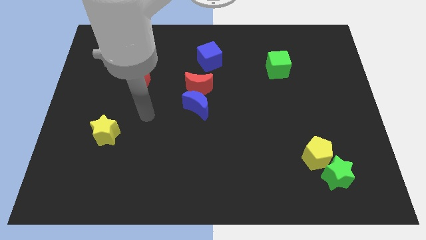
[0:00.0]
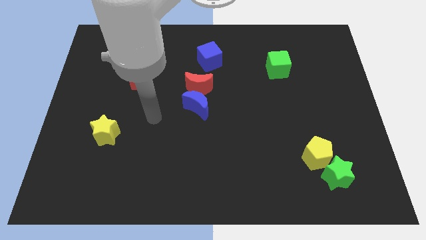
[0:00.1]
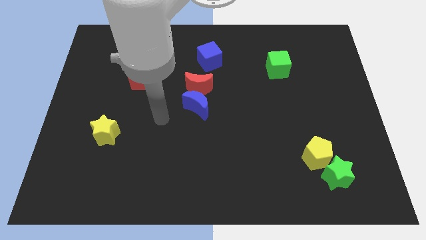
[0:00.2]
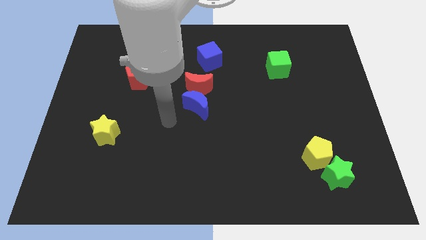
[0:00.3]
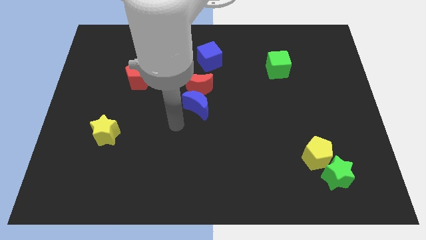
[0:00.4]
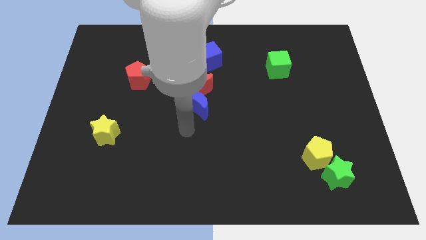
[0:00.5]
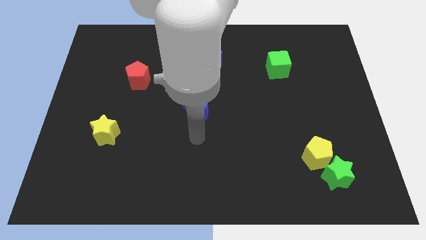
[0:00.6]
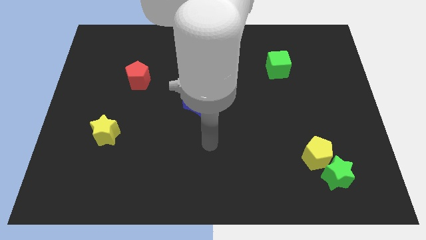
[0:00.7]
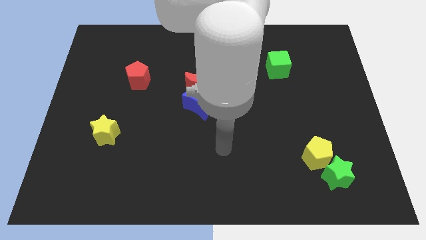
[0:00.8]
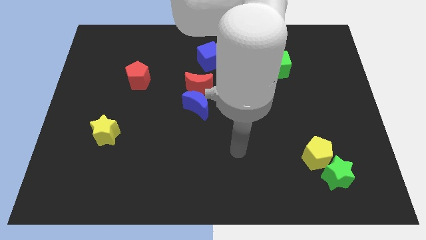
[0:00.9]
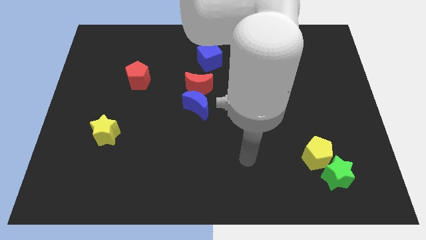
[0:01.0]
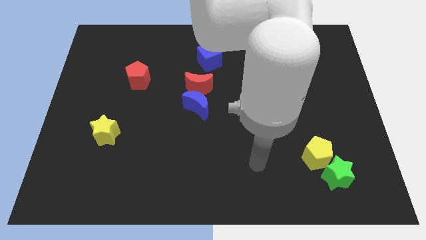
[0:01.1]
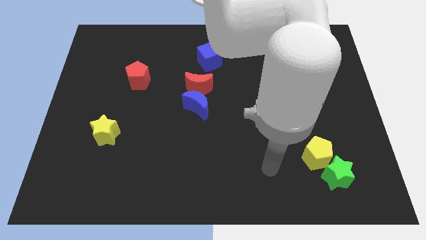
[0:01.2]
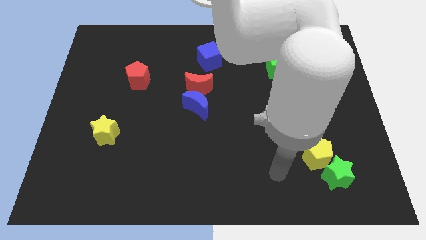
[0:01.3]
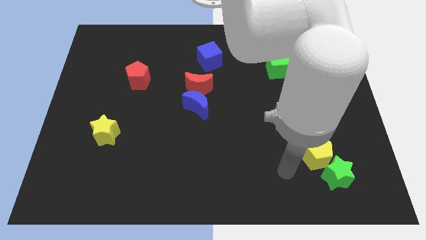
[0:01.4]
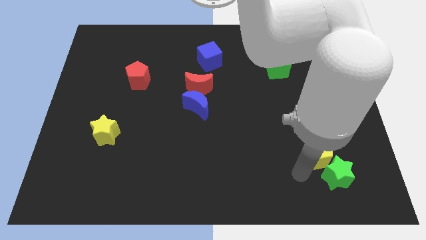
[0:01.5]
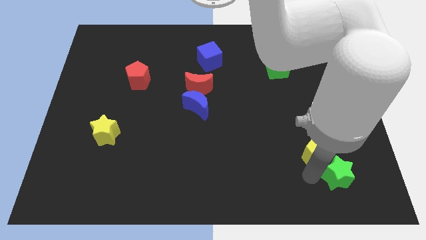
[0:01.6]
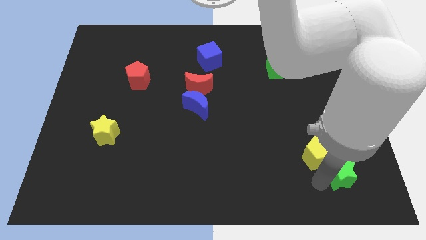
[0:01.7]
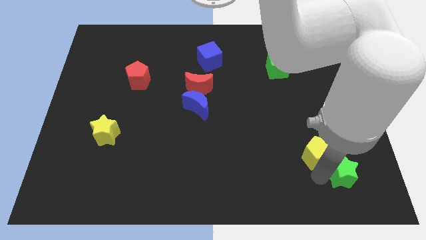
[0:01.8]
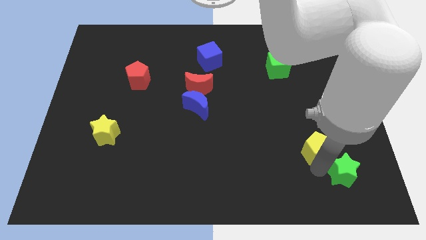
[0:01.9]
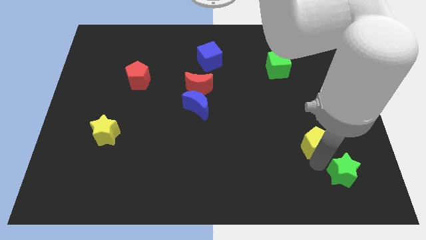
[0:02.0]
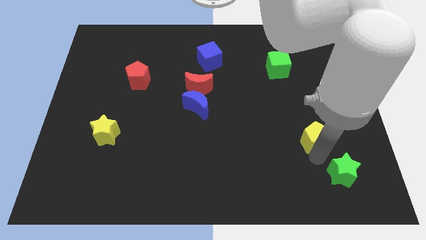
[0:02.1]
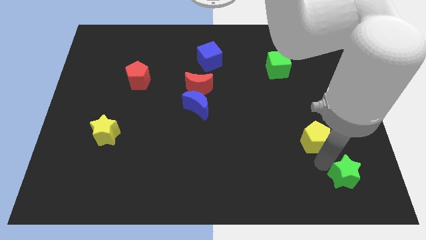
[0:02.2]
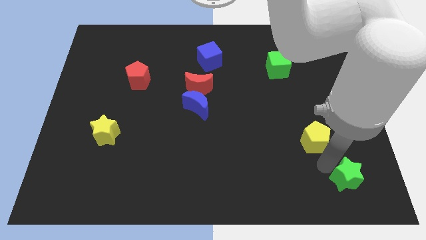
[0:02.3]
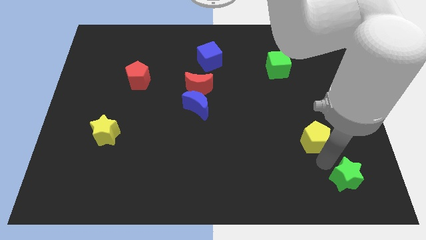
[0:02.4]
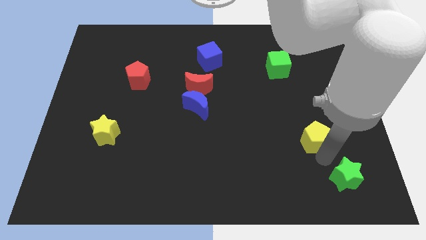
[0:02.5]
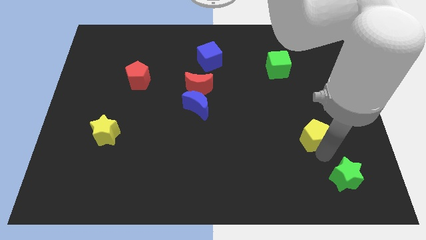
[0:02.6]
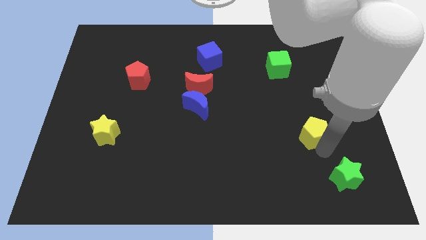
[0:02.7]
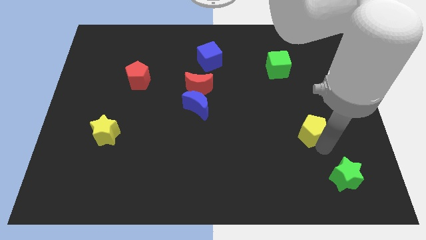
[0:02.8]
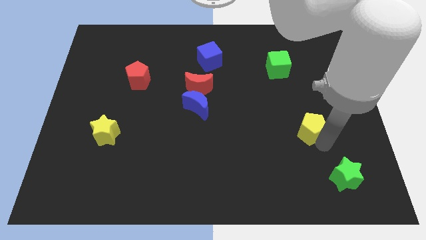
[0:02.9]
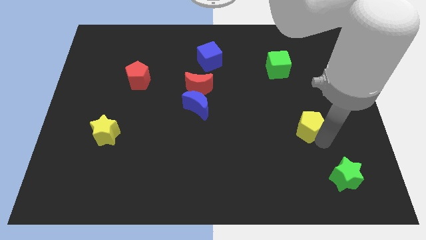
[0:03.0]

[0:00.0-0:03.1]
push the yellow pentagon upwards a little

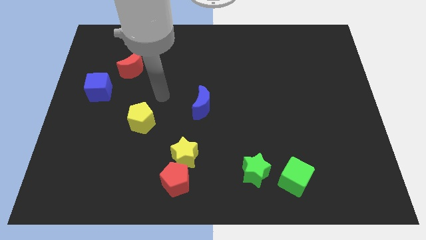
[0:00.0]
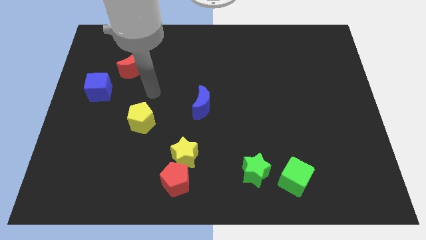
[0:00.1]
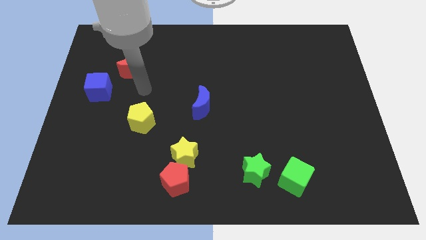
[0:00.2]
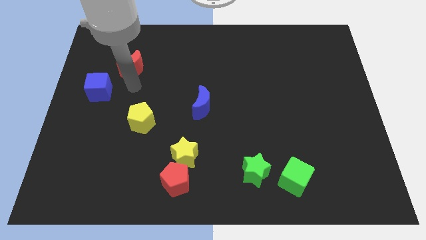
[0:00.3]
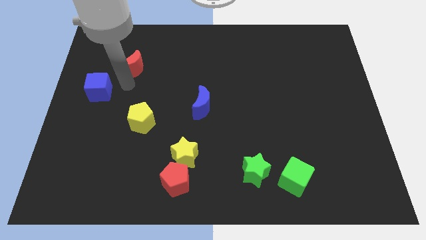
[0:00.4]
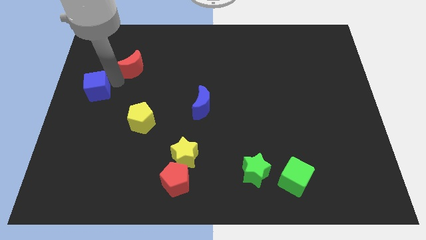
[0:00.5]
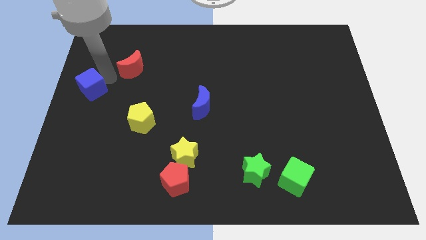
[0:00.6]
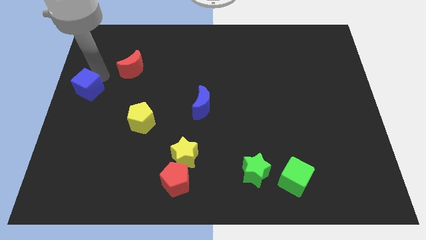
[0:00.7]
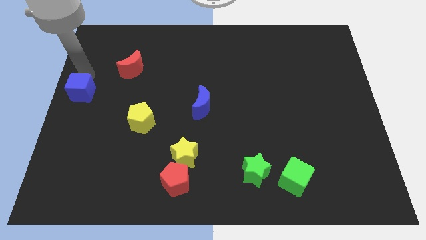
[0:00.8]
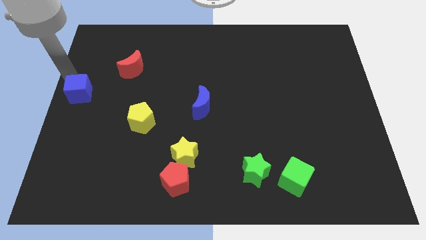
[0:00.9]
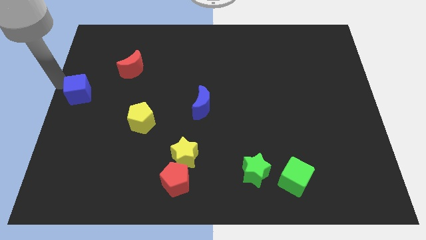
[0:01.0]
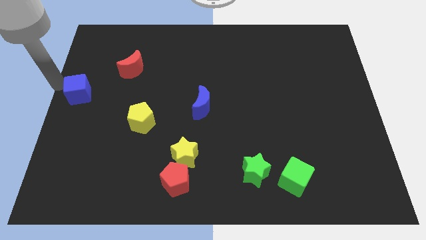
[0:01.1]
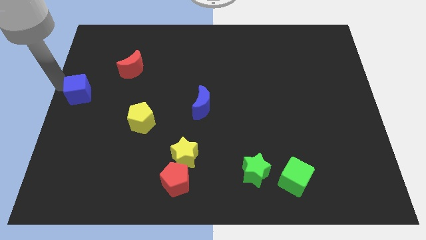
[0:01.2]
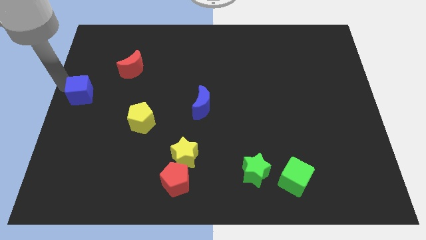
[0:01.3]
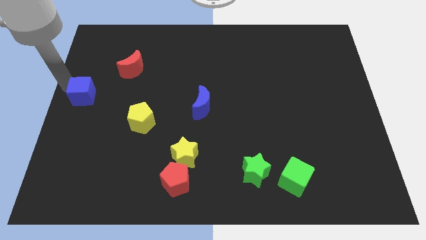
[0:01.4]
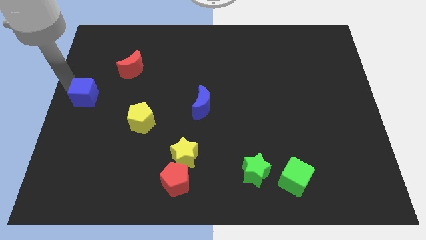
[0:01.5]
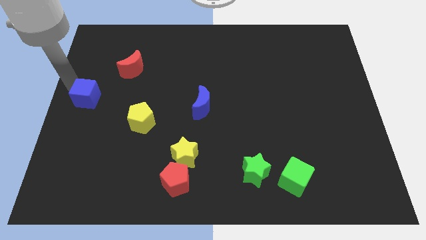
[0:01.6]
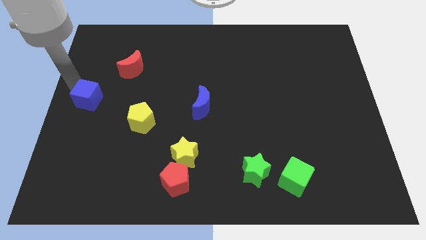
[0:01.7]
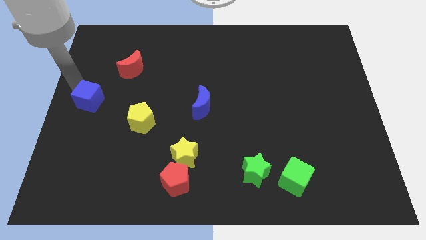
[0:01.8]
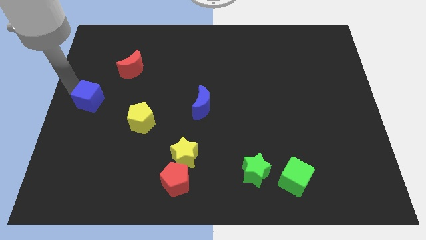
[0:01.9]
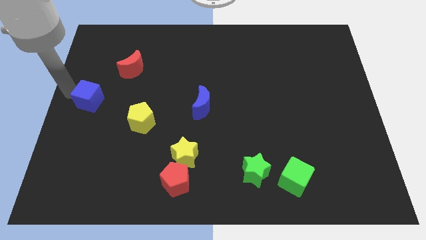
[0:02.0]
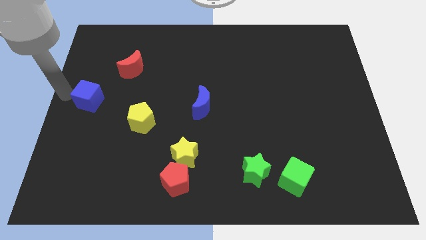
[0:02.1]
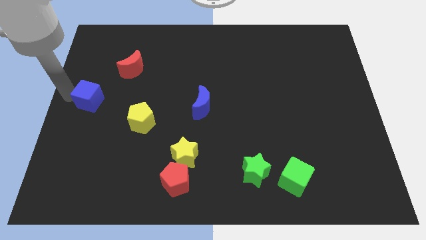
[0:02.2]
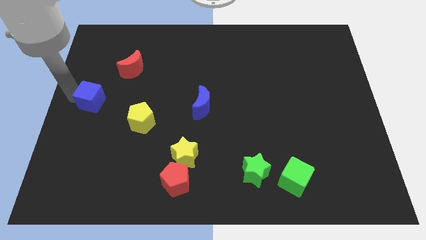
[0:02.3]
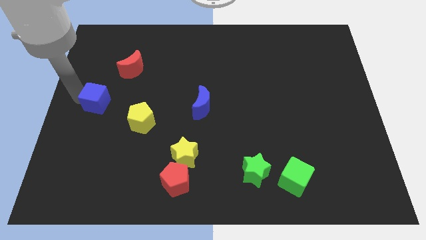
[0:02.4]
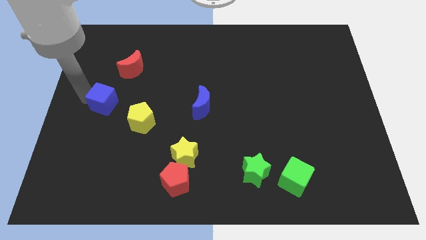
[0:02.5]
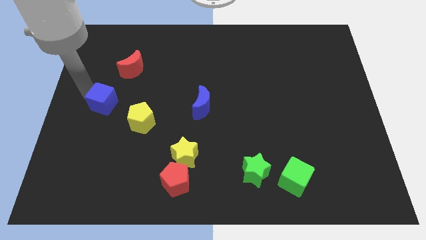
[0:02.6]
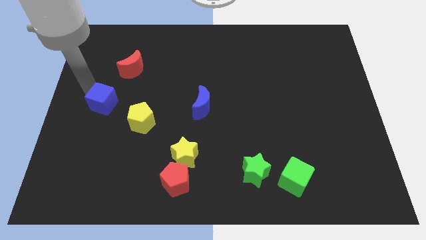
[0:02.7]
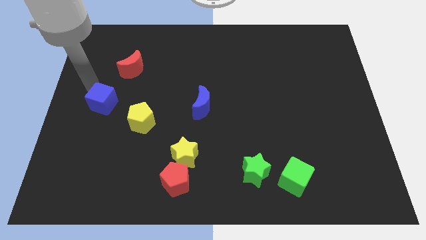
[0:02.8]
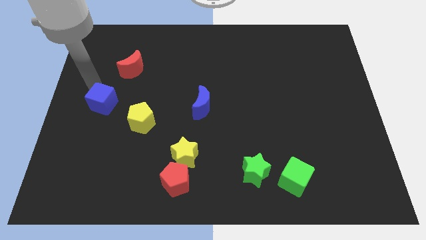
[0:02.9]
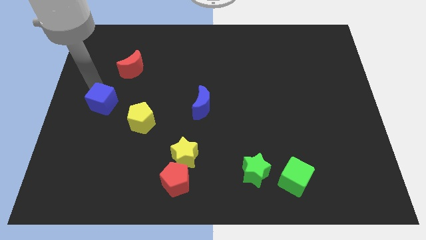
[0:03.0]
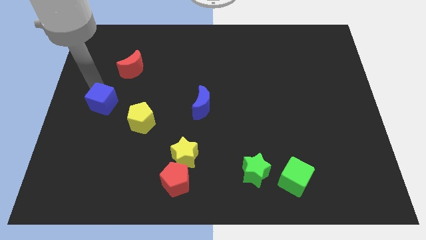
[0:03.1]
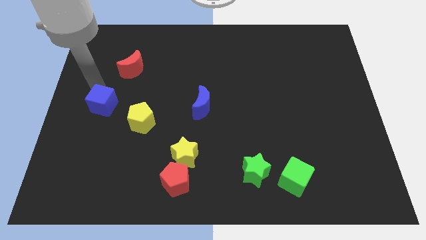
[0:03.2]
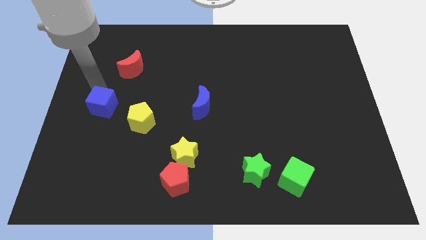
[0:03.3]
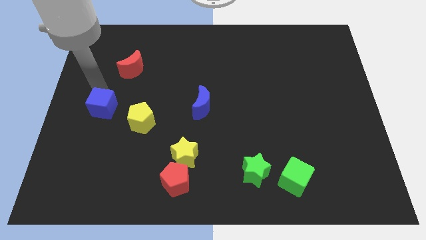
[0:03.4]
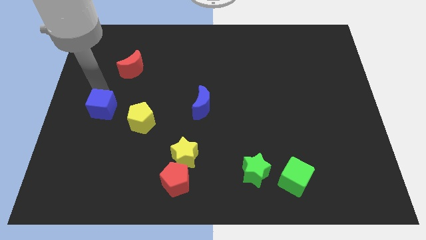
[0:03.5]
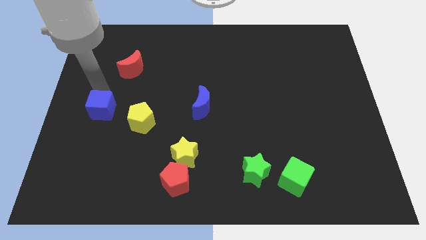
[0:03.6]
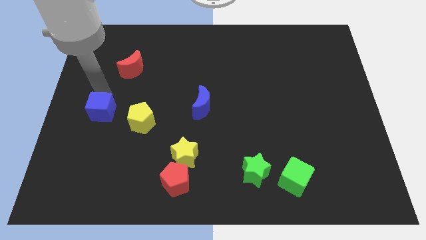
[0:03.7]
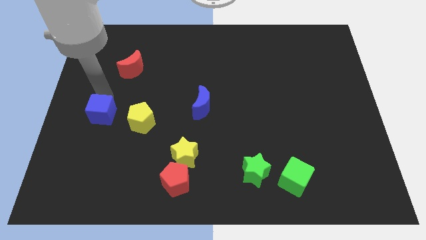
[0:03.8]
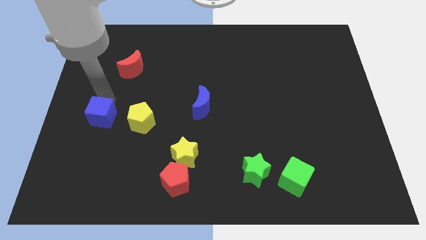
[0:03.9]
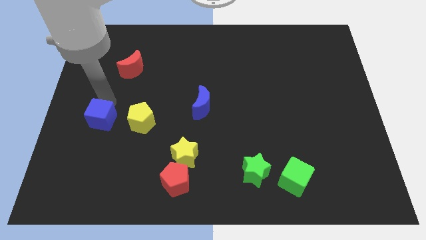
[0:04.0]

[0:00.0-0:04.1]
move the blue cube a bit downwards and then to the right

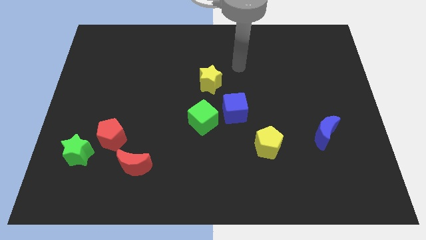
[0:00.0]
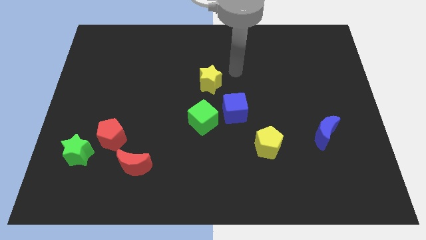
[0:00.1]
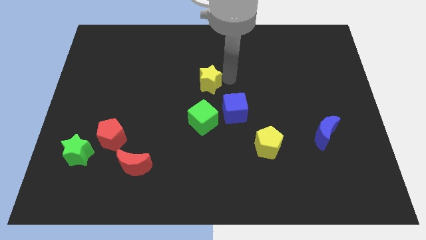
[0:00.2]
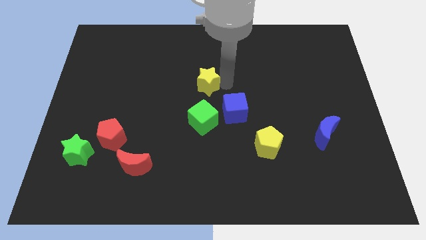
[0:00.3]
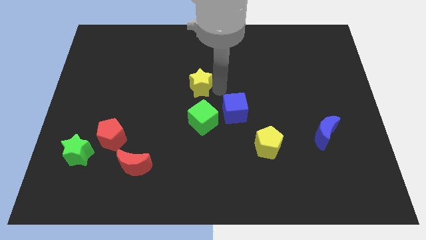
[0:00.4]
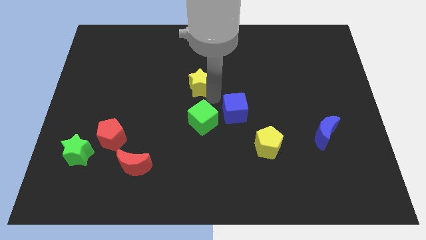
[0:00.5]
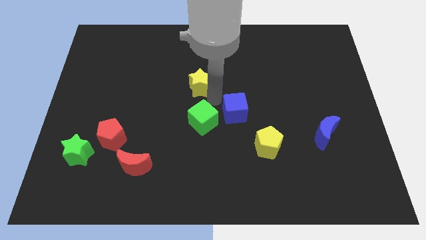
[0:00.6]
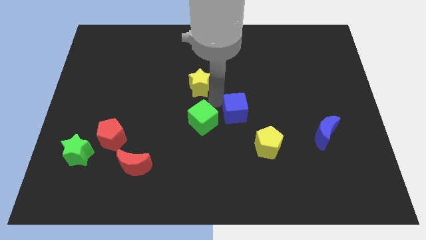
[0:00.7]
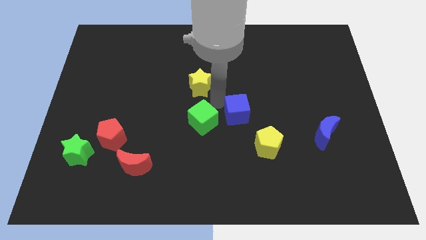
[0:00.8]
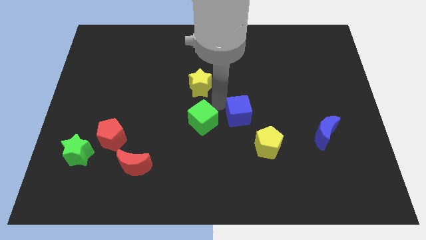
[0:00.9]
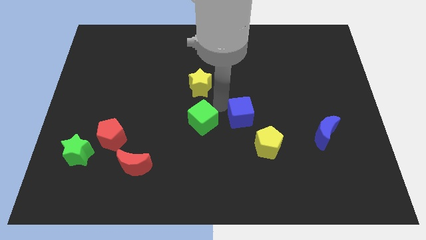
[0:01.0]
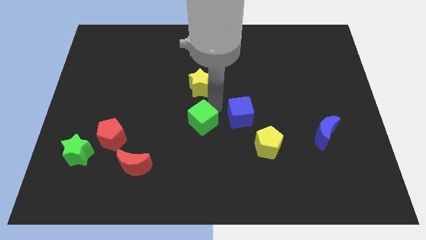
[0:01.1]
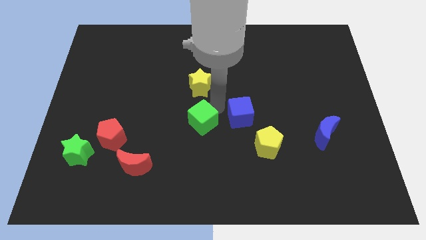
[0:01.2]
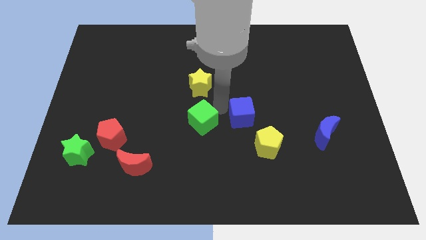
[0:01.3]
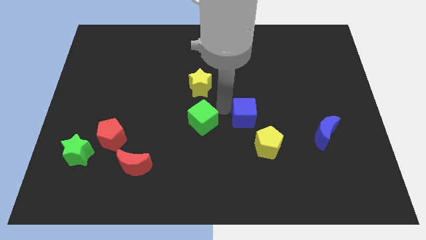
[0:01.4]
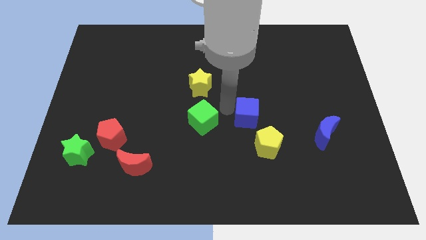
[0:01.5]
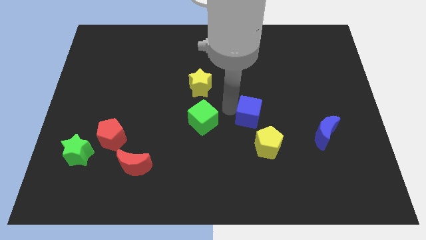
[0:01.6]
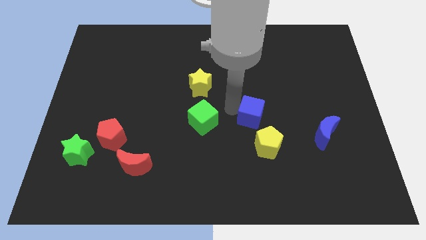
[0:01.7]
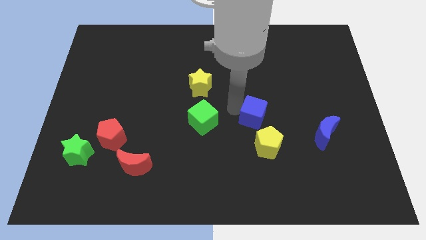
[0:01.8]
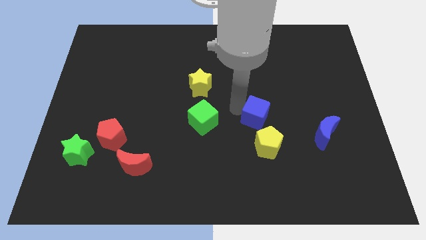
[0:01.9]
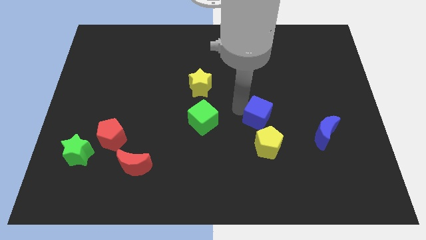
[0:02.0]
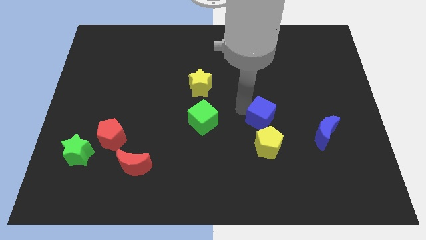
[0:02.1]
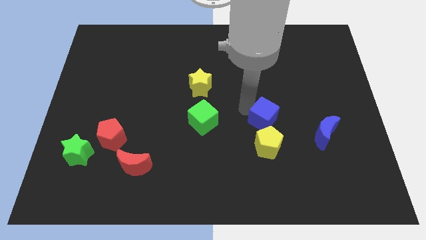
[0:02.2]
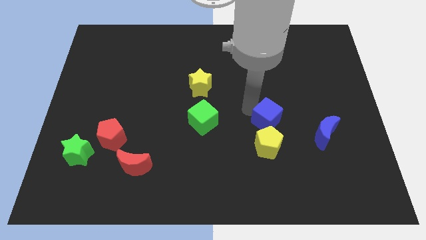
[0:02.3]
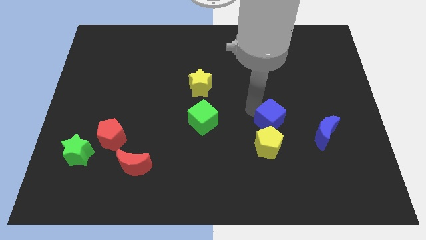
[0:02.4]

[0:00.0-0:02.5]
slide the blue cube down and right diagonally a little
